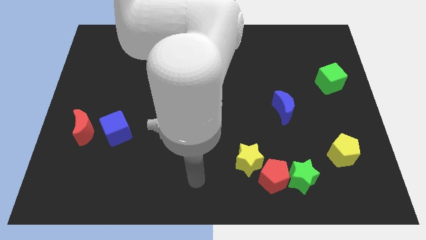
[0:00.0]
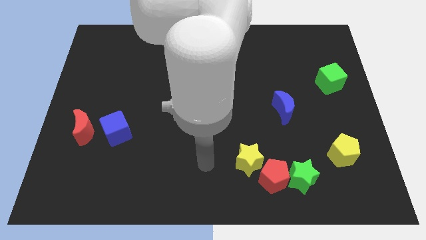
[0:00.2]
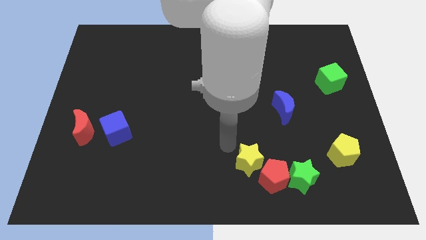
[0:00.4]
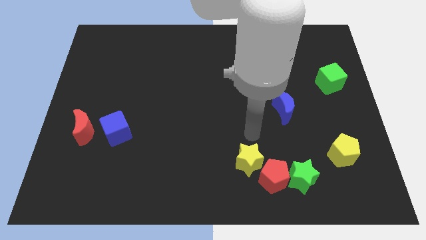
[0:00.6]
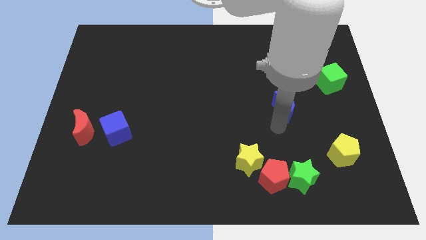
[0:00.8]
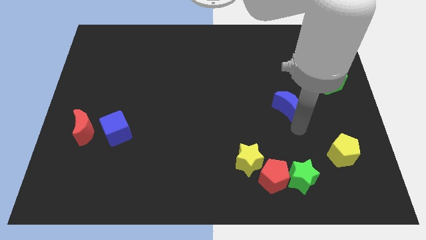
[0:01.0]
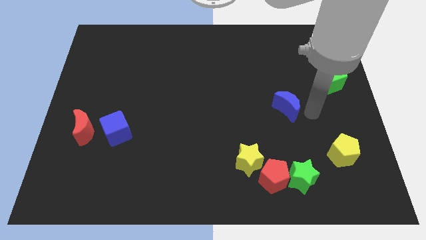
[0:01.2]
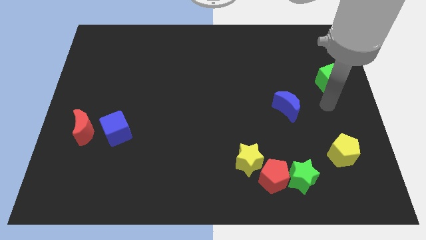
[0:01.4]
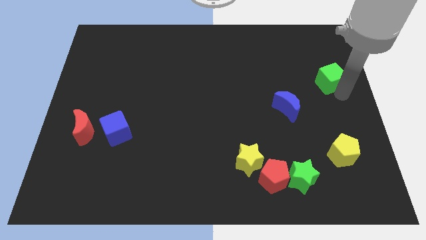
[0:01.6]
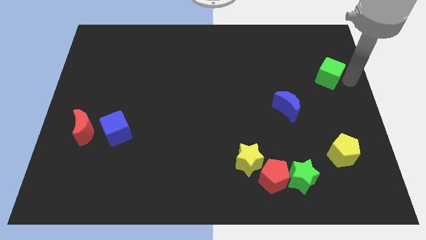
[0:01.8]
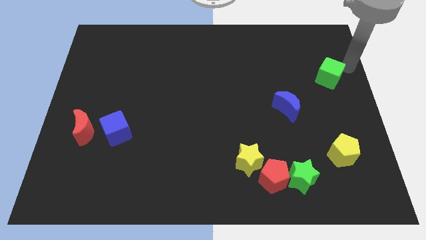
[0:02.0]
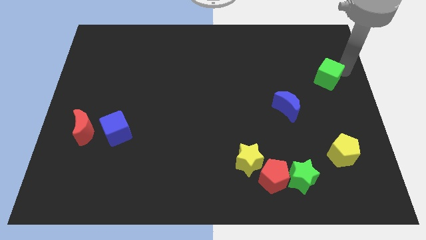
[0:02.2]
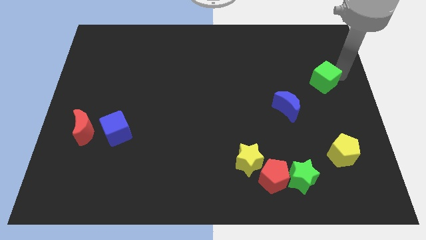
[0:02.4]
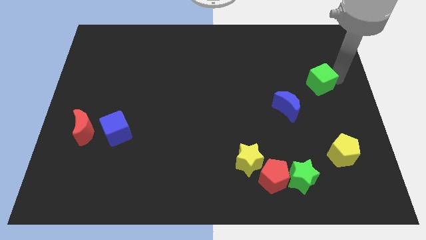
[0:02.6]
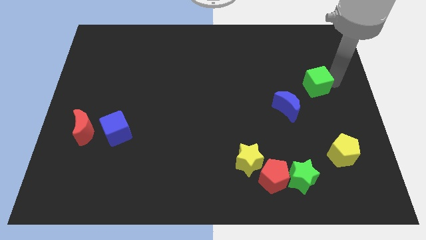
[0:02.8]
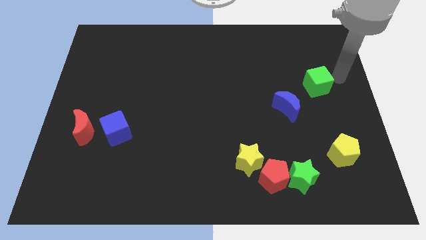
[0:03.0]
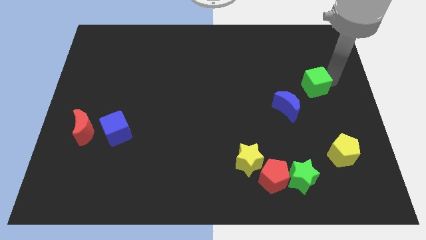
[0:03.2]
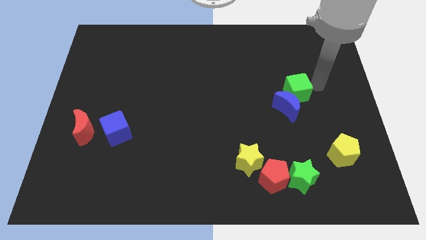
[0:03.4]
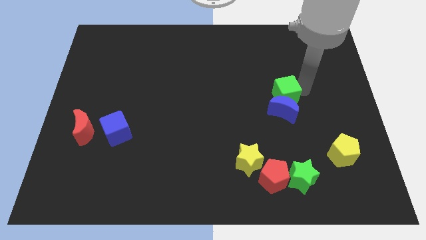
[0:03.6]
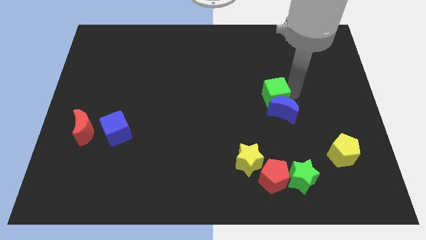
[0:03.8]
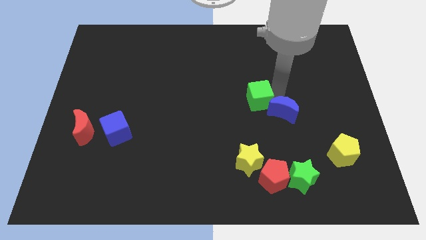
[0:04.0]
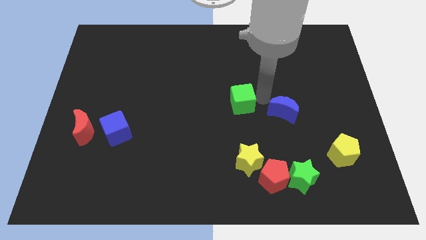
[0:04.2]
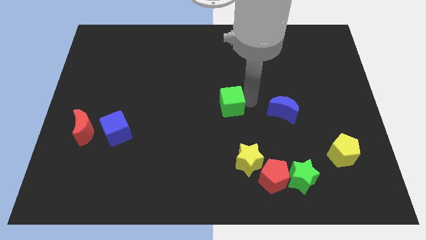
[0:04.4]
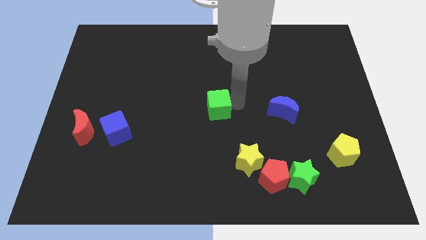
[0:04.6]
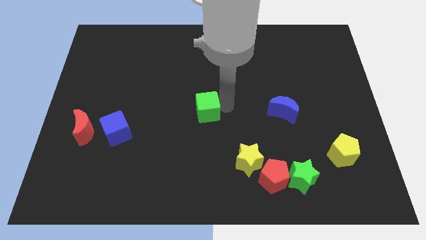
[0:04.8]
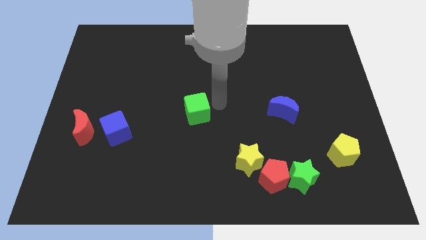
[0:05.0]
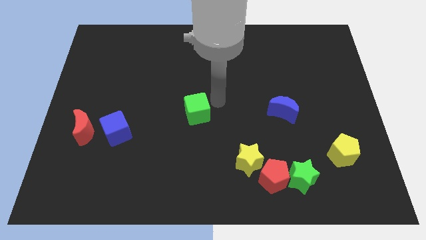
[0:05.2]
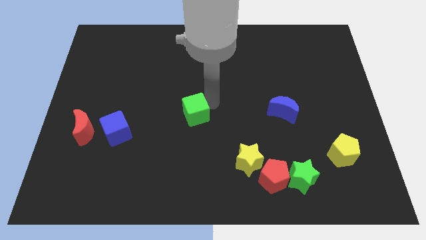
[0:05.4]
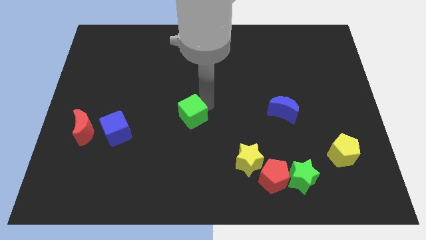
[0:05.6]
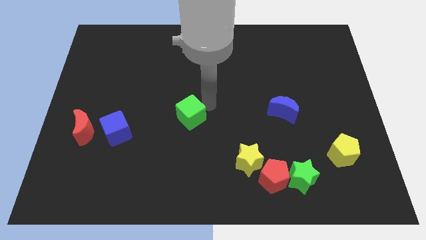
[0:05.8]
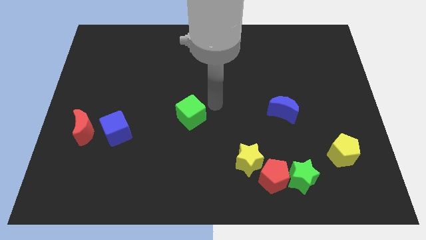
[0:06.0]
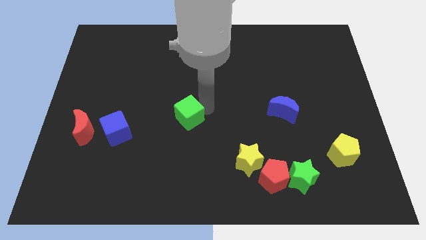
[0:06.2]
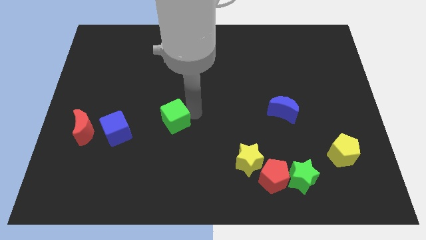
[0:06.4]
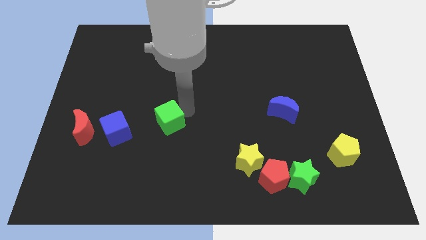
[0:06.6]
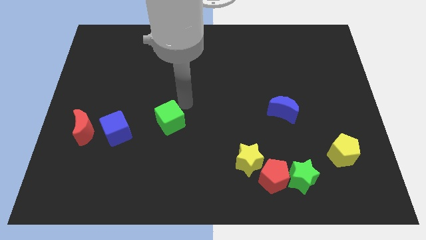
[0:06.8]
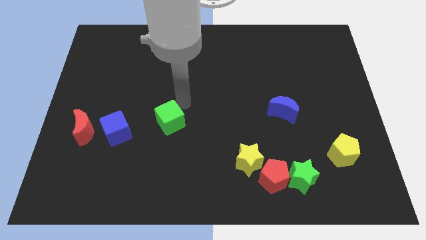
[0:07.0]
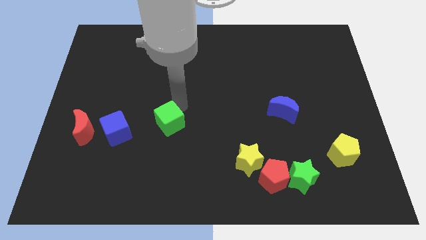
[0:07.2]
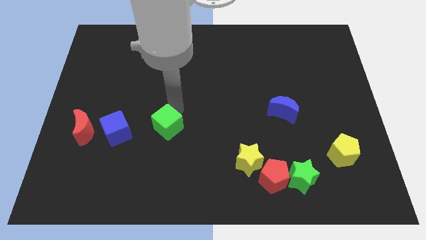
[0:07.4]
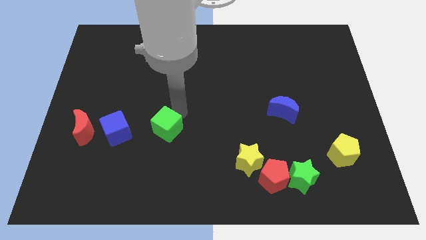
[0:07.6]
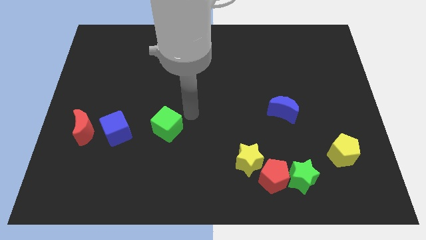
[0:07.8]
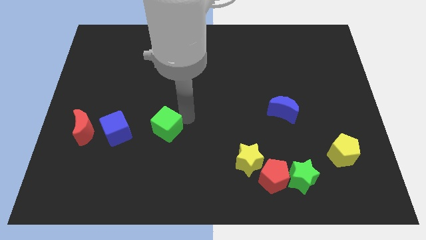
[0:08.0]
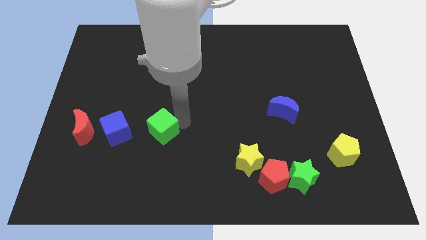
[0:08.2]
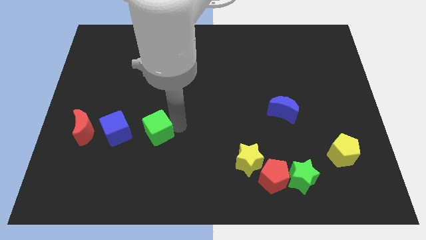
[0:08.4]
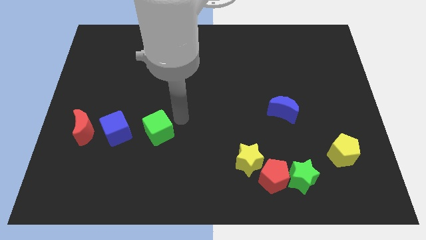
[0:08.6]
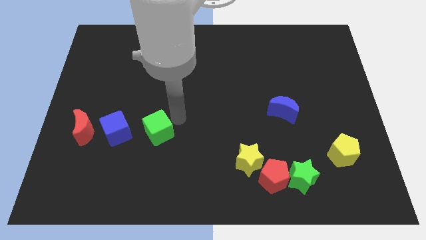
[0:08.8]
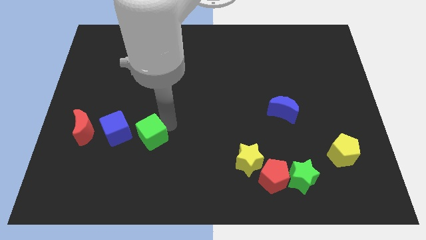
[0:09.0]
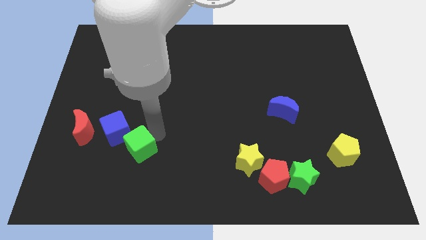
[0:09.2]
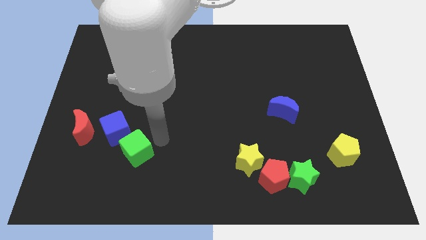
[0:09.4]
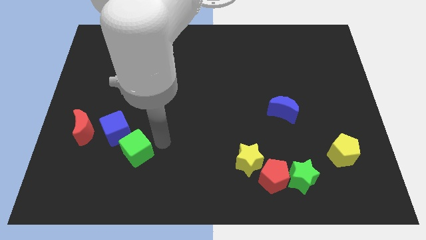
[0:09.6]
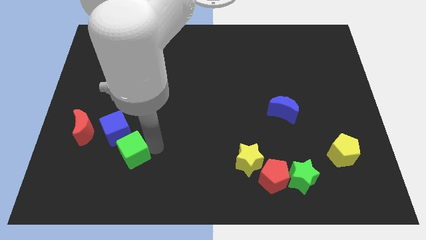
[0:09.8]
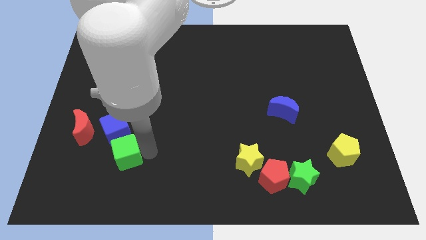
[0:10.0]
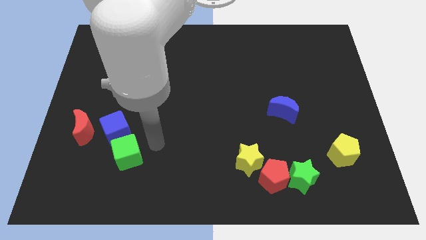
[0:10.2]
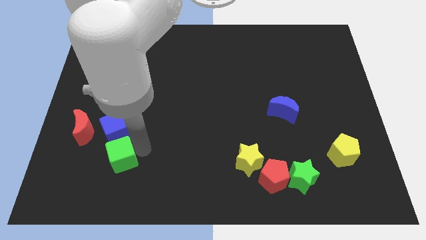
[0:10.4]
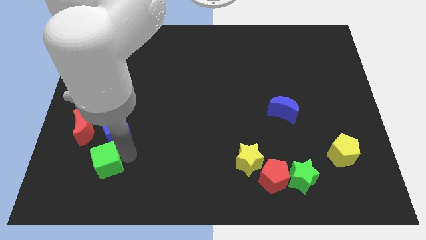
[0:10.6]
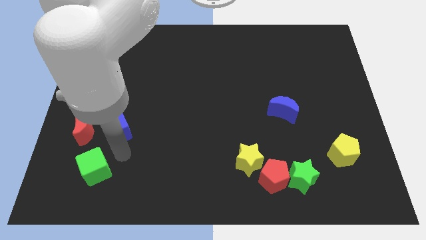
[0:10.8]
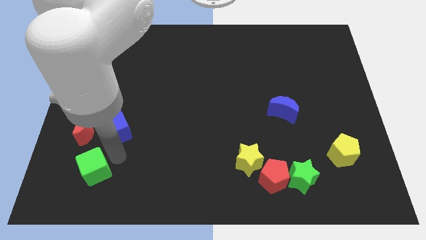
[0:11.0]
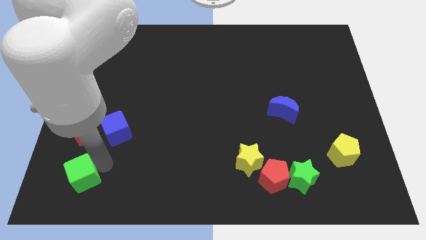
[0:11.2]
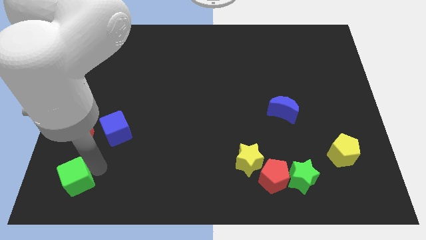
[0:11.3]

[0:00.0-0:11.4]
move the green cube to the bottom left corner

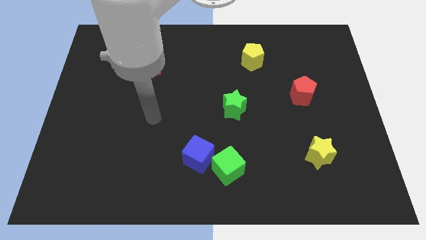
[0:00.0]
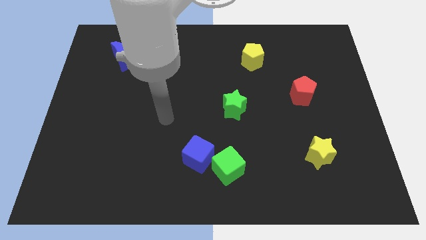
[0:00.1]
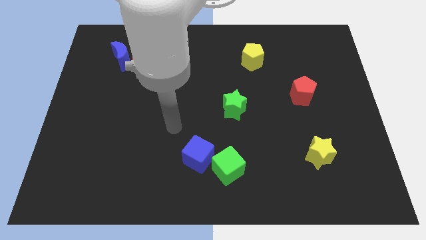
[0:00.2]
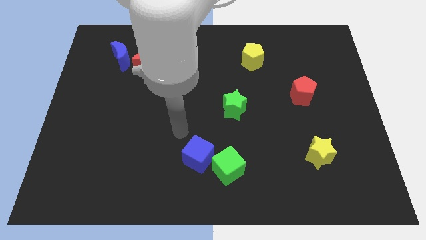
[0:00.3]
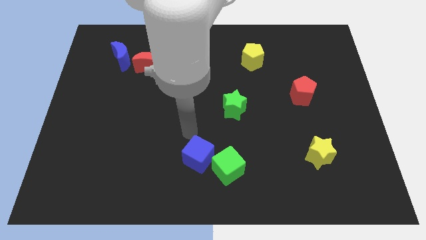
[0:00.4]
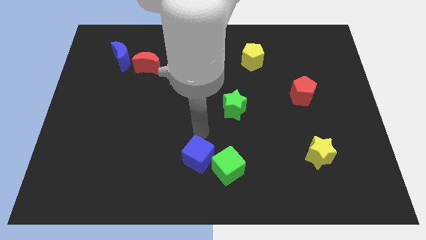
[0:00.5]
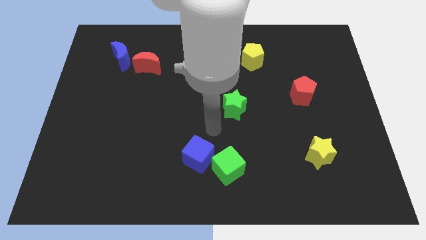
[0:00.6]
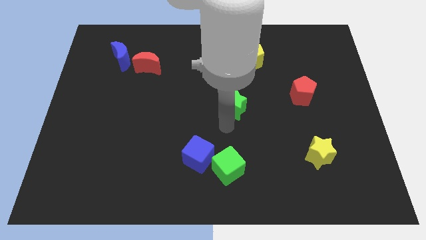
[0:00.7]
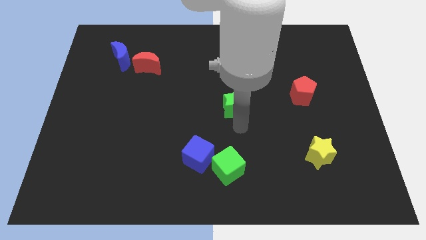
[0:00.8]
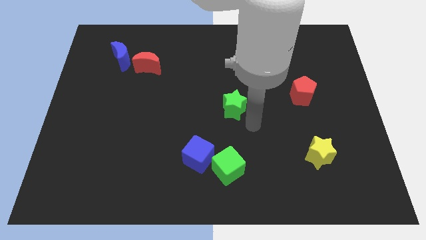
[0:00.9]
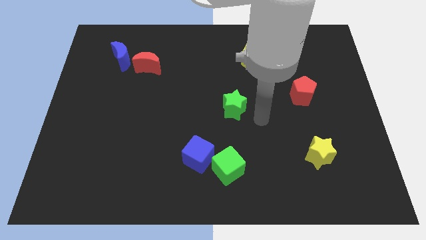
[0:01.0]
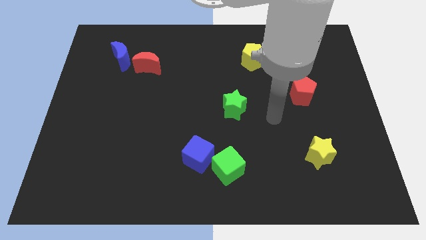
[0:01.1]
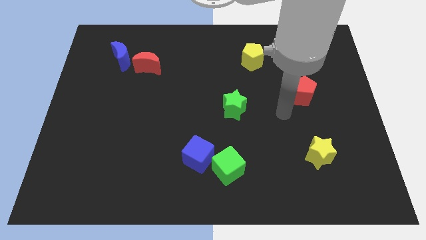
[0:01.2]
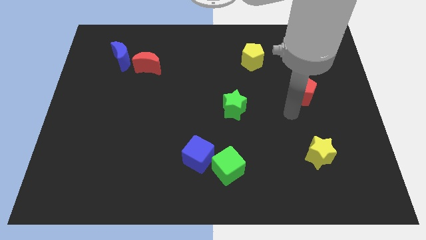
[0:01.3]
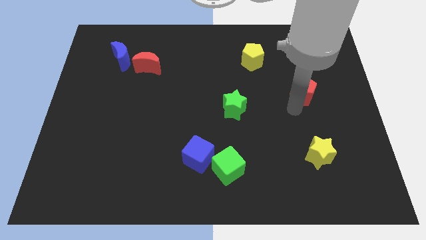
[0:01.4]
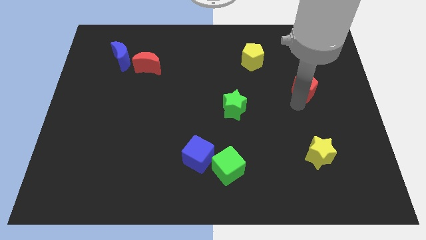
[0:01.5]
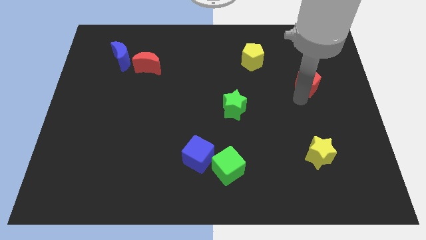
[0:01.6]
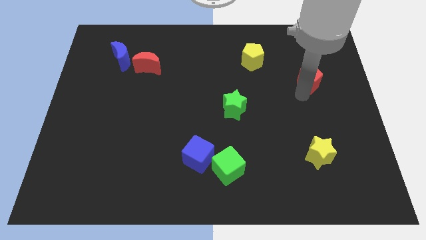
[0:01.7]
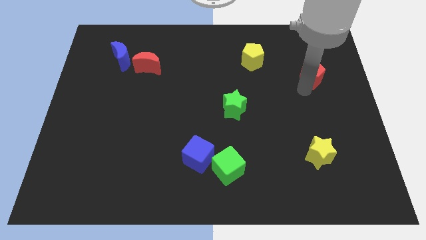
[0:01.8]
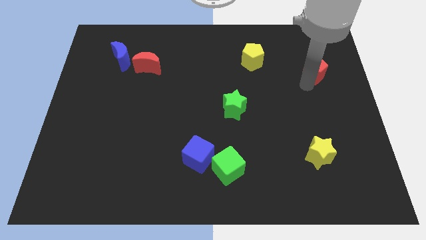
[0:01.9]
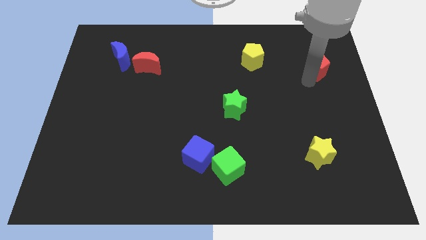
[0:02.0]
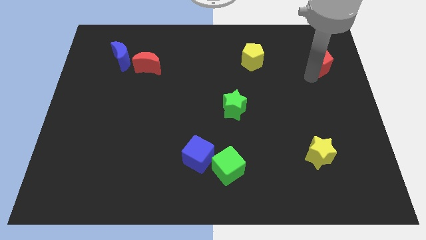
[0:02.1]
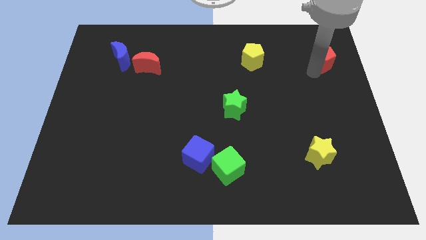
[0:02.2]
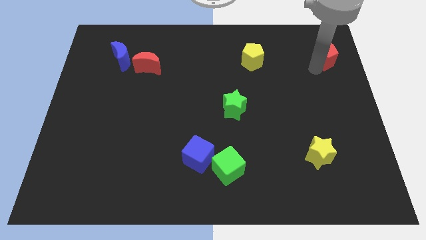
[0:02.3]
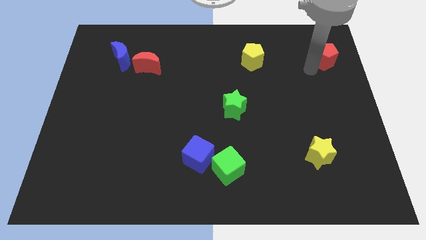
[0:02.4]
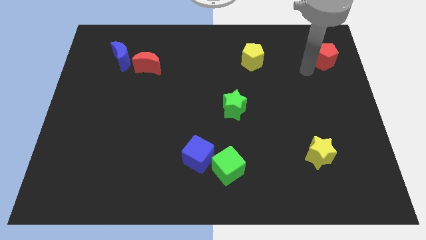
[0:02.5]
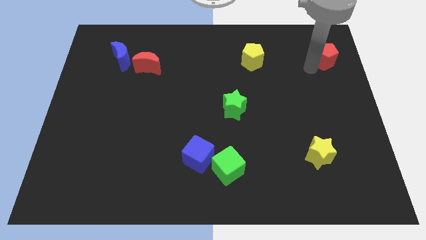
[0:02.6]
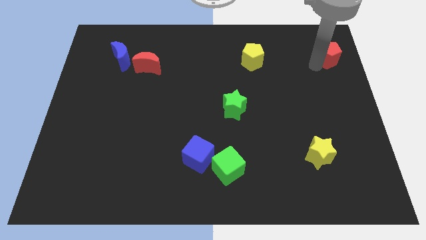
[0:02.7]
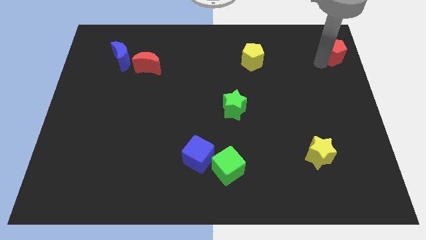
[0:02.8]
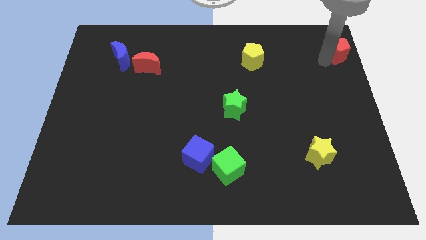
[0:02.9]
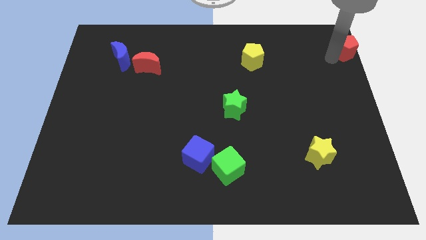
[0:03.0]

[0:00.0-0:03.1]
put the red pentagon to the top right of the board
